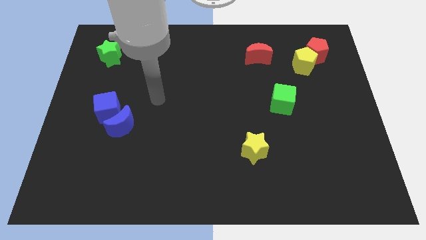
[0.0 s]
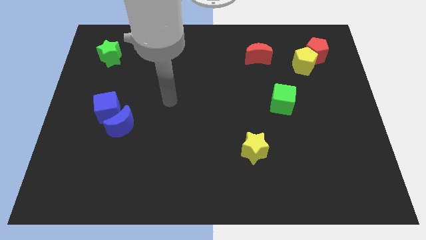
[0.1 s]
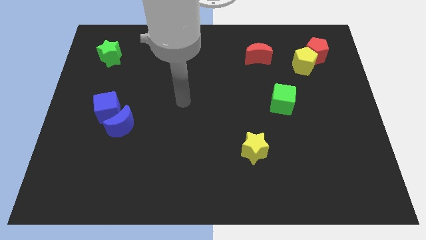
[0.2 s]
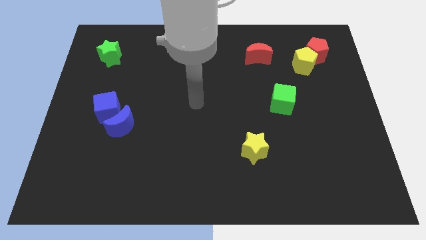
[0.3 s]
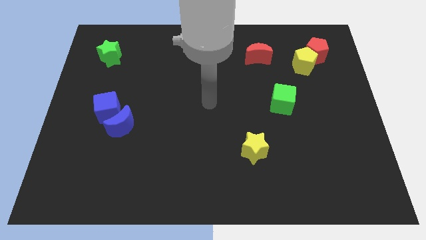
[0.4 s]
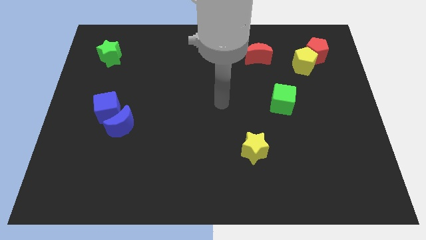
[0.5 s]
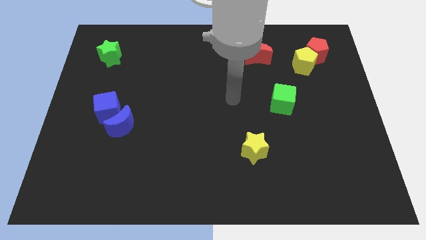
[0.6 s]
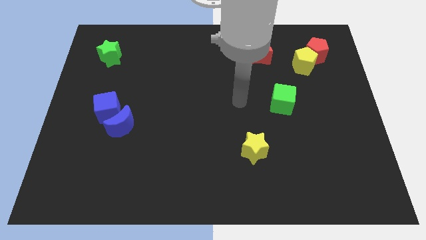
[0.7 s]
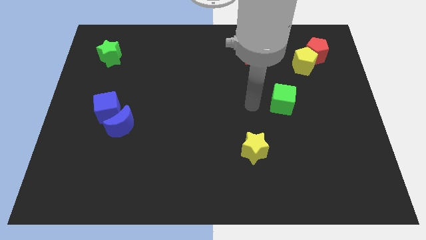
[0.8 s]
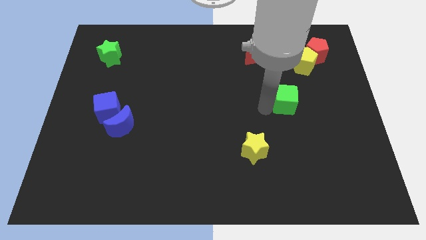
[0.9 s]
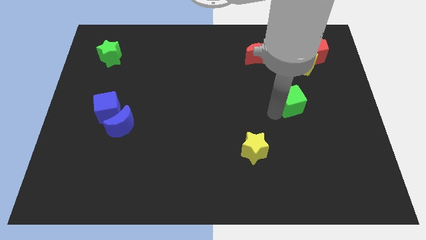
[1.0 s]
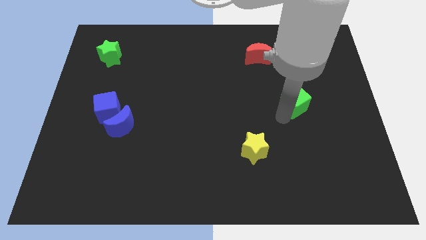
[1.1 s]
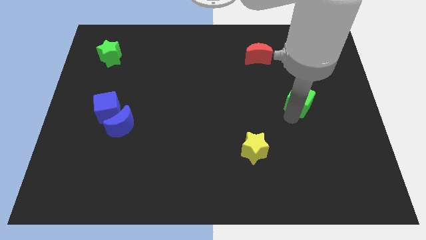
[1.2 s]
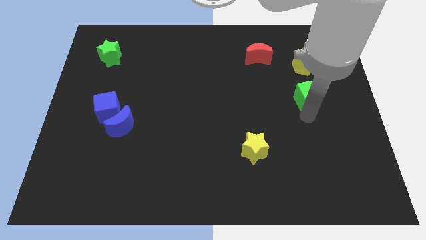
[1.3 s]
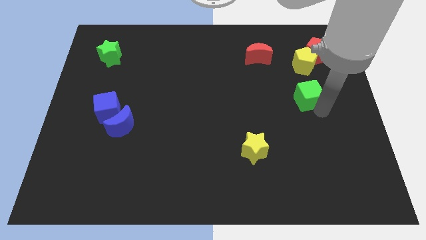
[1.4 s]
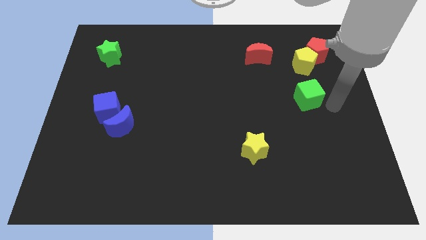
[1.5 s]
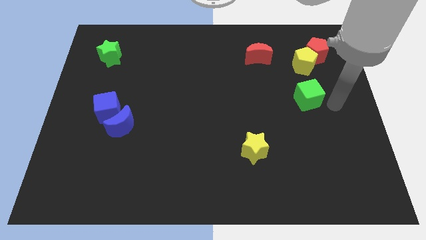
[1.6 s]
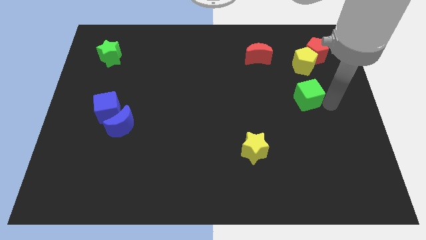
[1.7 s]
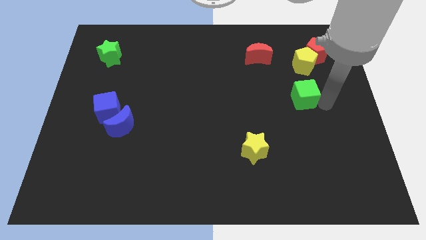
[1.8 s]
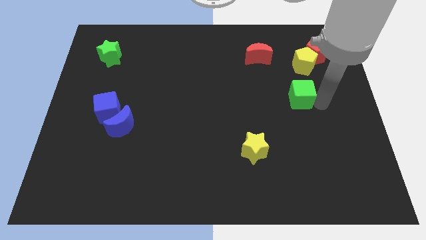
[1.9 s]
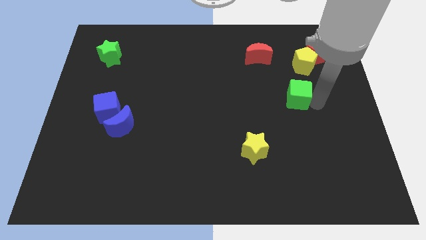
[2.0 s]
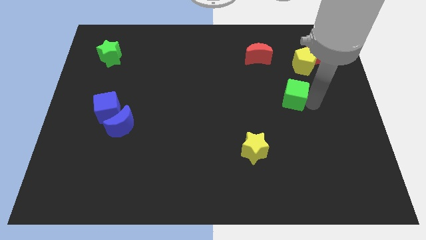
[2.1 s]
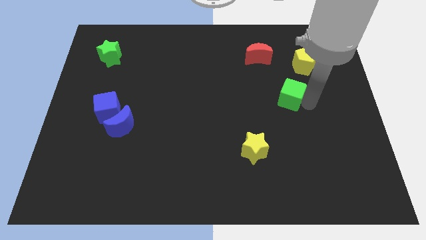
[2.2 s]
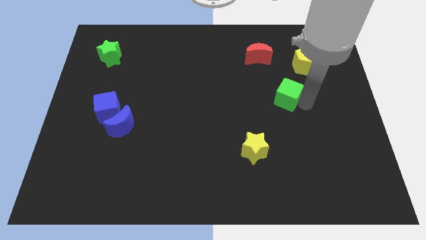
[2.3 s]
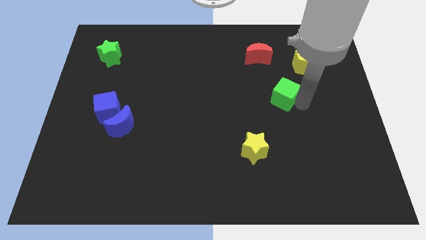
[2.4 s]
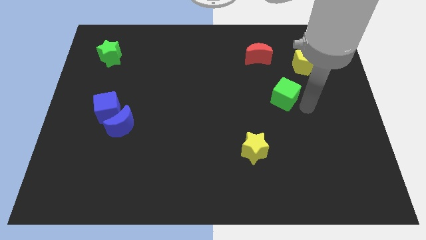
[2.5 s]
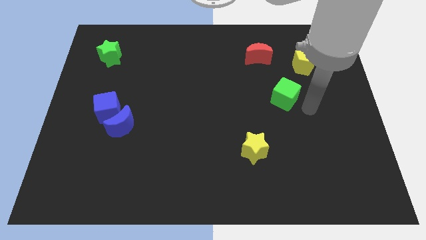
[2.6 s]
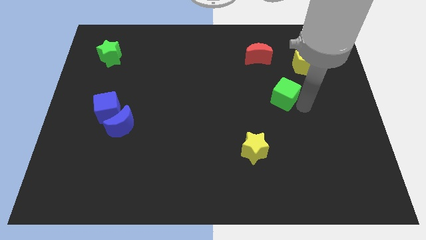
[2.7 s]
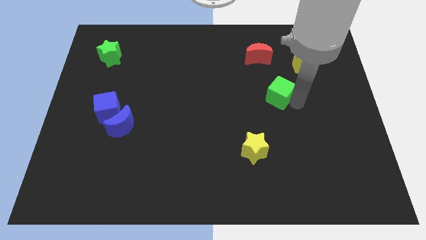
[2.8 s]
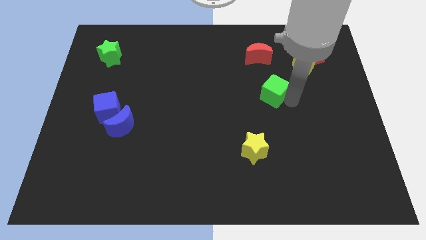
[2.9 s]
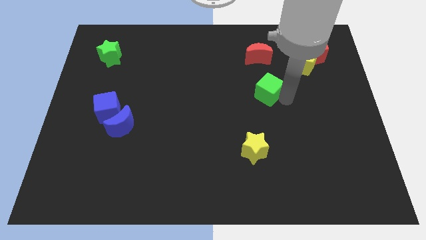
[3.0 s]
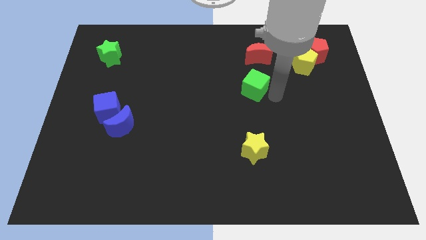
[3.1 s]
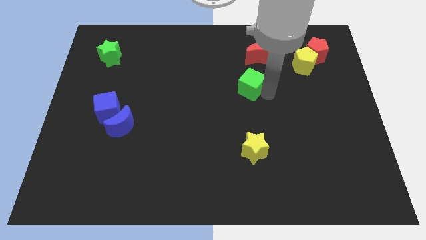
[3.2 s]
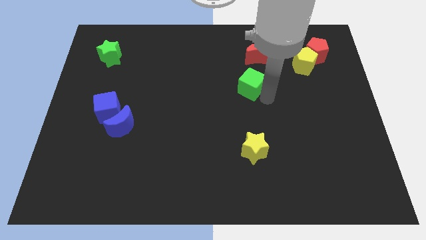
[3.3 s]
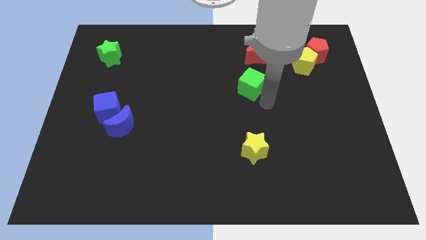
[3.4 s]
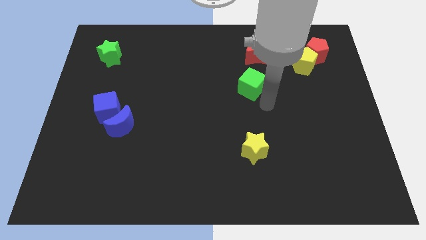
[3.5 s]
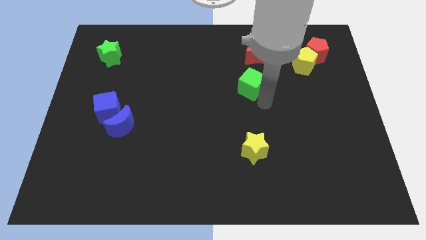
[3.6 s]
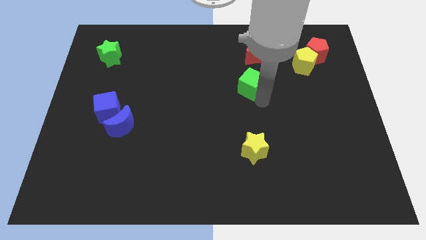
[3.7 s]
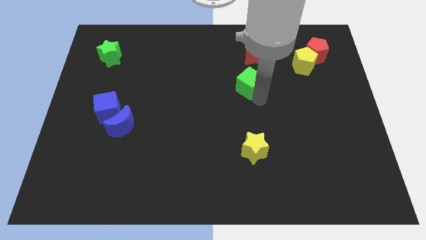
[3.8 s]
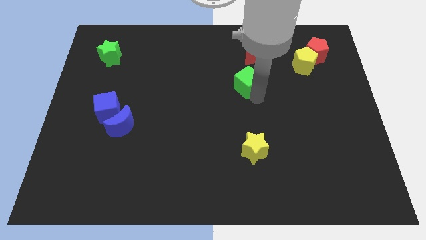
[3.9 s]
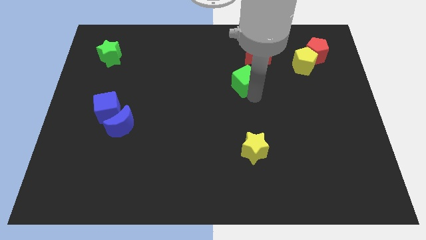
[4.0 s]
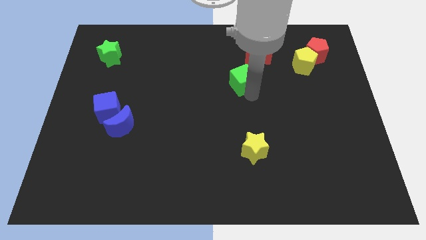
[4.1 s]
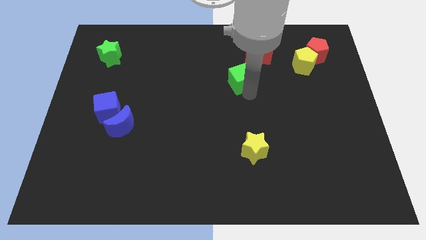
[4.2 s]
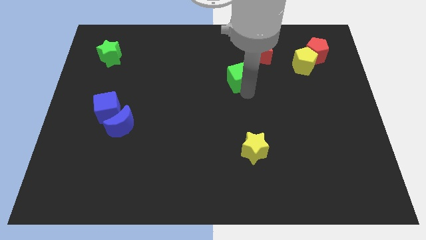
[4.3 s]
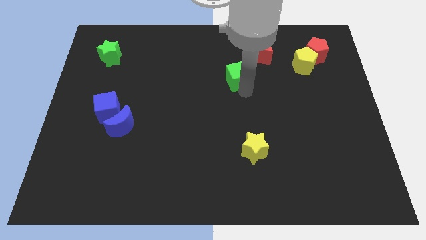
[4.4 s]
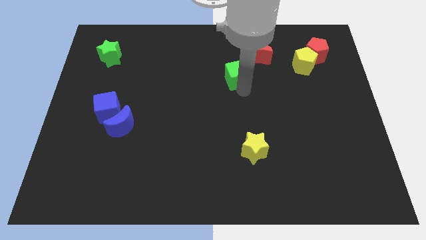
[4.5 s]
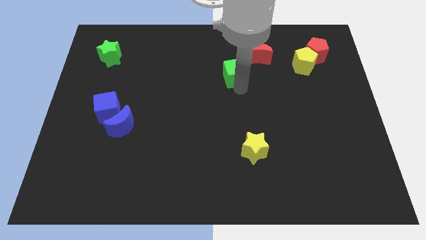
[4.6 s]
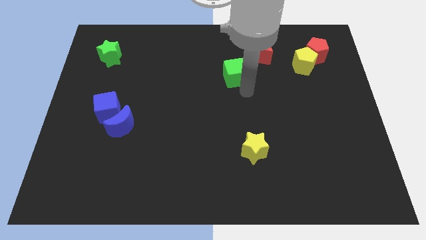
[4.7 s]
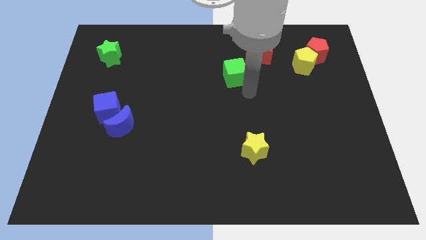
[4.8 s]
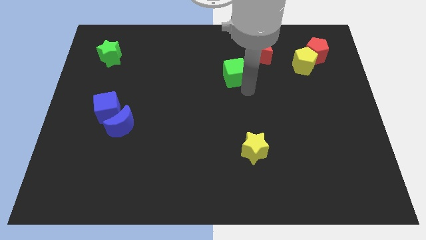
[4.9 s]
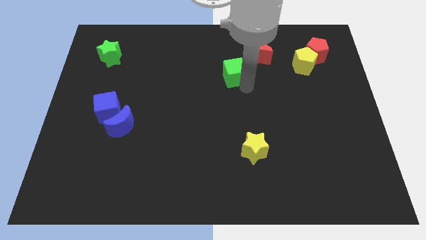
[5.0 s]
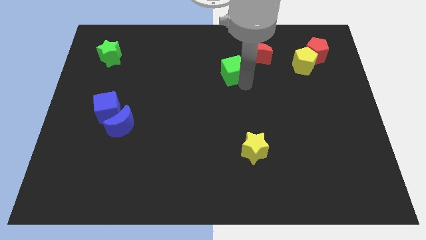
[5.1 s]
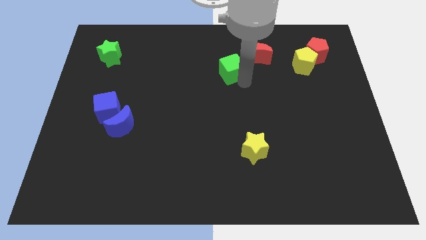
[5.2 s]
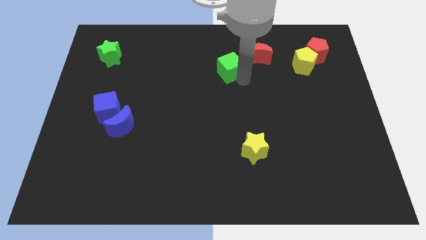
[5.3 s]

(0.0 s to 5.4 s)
push the green cube left of the red moon

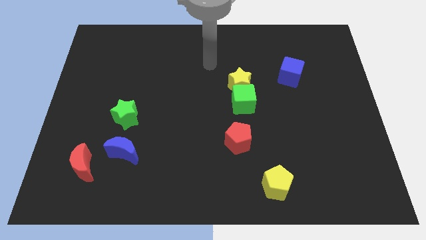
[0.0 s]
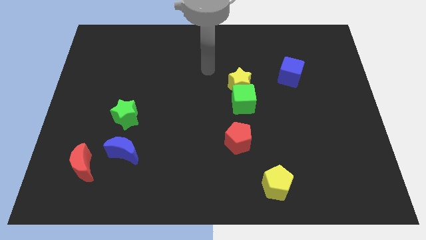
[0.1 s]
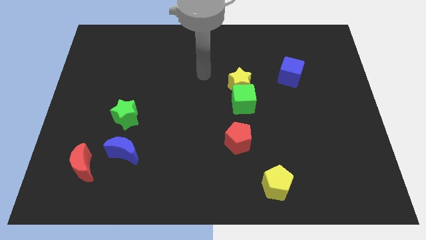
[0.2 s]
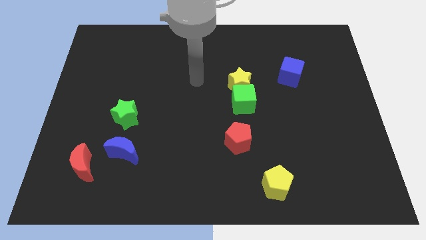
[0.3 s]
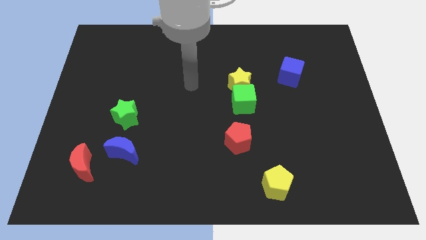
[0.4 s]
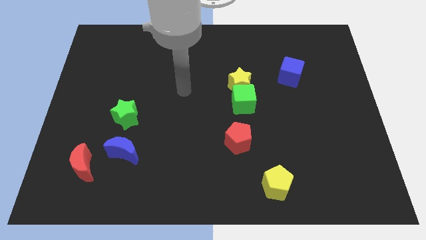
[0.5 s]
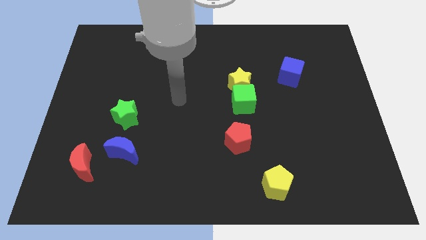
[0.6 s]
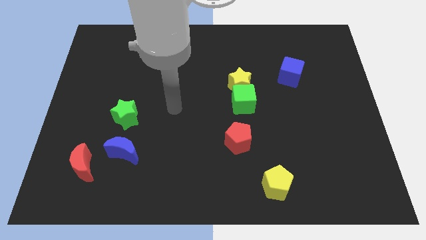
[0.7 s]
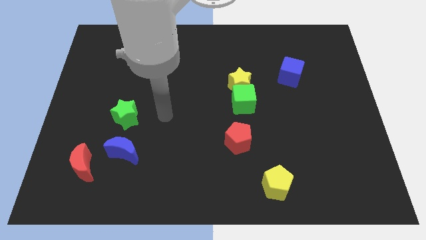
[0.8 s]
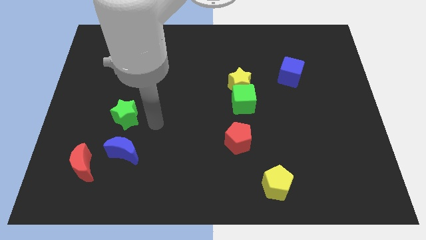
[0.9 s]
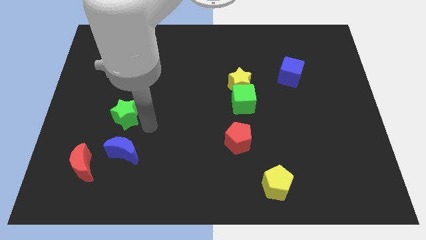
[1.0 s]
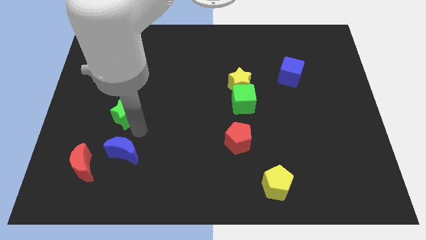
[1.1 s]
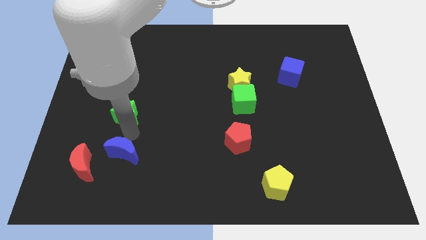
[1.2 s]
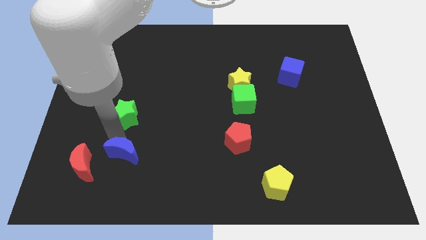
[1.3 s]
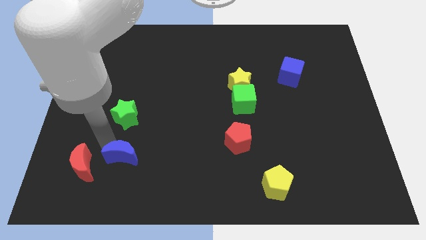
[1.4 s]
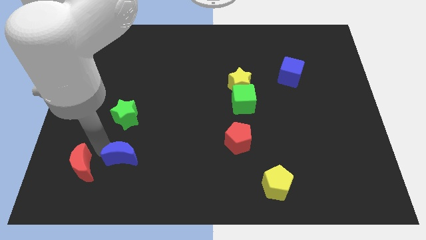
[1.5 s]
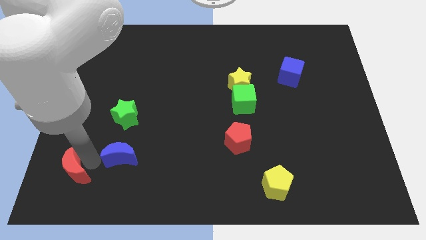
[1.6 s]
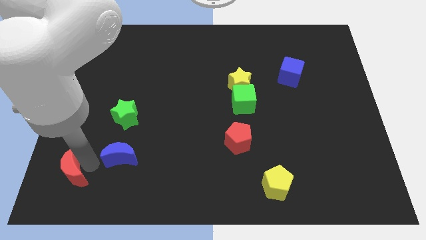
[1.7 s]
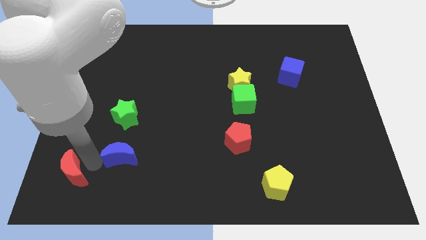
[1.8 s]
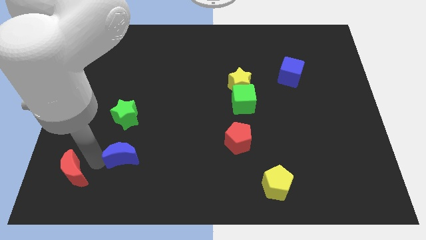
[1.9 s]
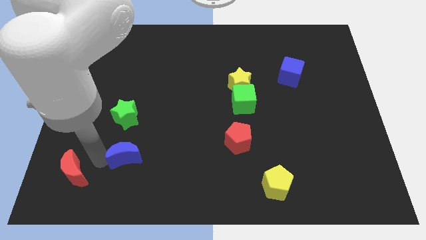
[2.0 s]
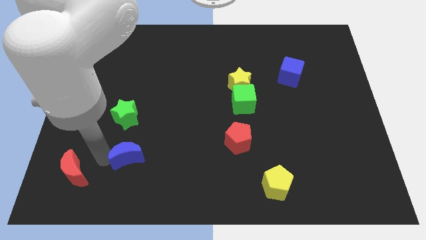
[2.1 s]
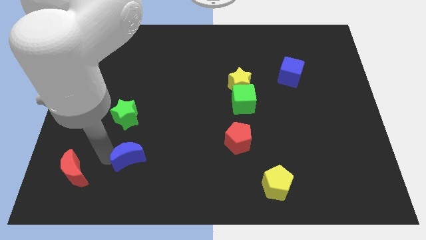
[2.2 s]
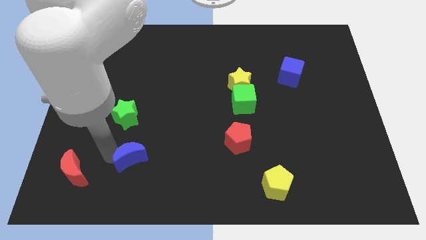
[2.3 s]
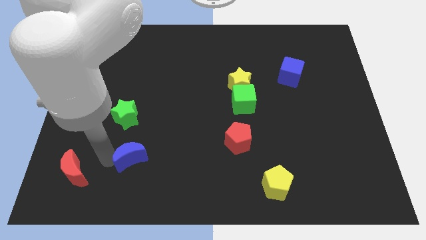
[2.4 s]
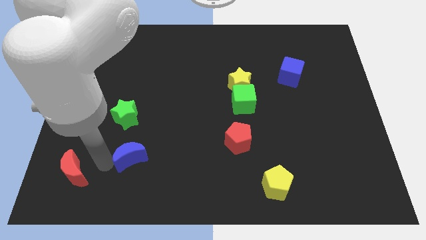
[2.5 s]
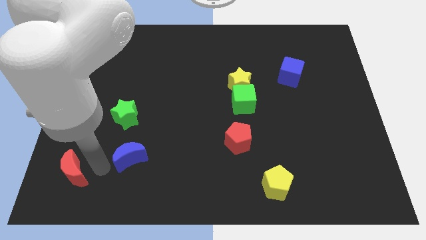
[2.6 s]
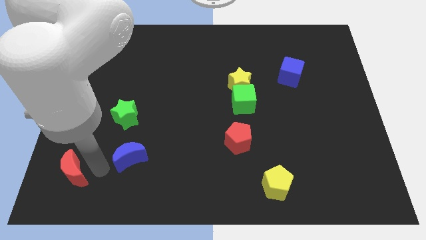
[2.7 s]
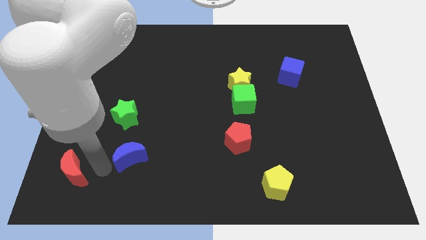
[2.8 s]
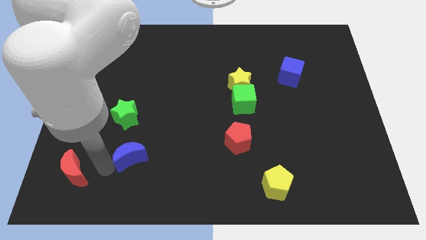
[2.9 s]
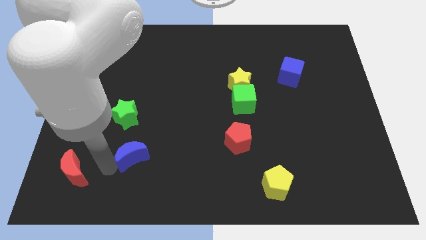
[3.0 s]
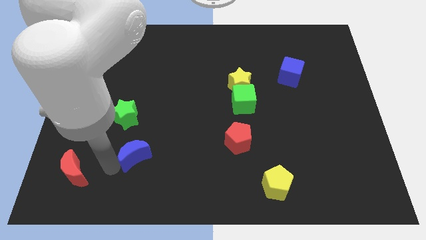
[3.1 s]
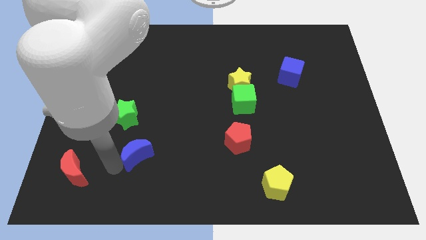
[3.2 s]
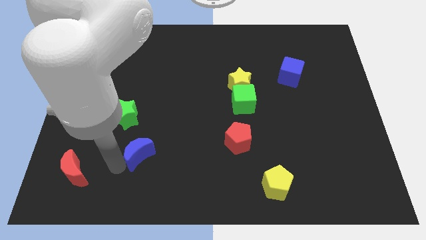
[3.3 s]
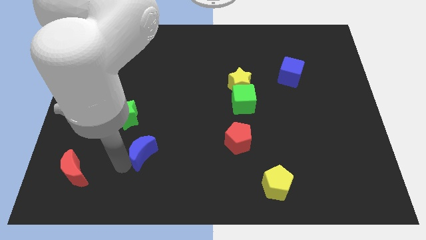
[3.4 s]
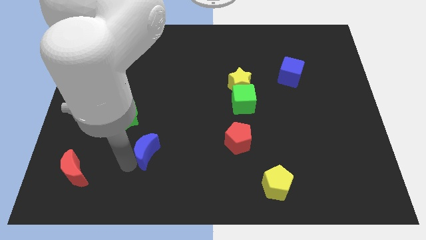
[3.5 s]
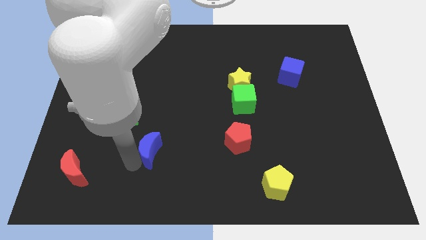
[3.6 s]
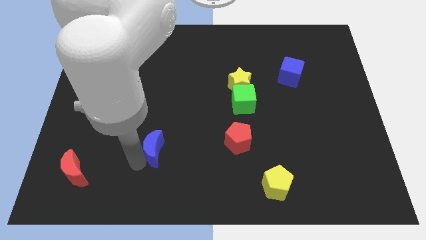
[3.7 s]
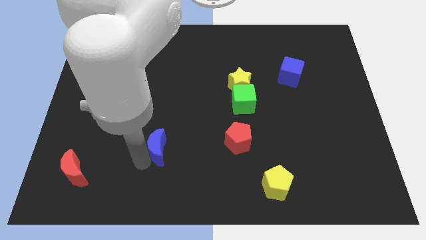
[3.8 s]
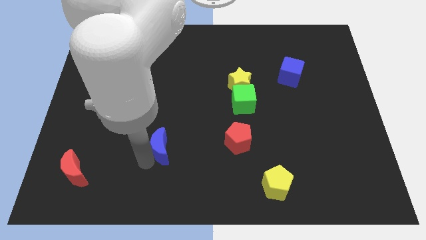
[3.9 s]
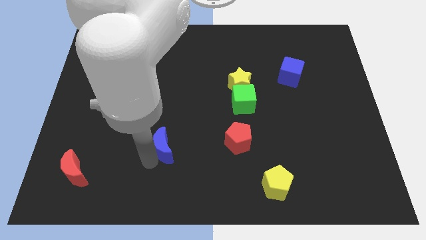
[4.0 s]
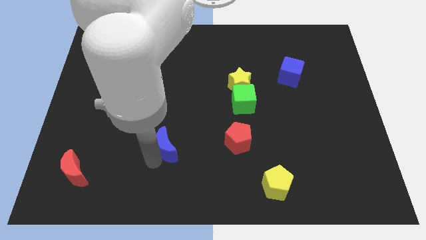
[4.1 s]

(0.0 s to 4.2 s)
put the blue moon to the left side of the red pentagon
